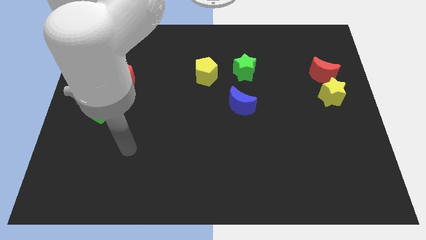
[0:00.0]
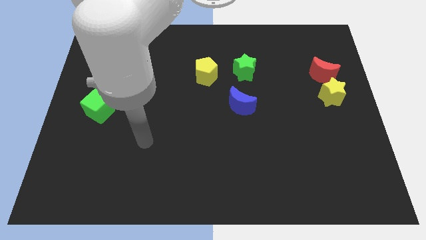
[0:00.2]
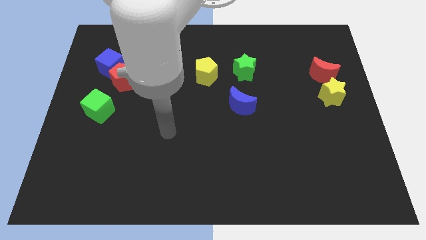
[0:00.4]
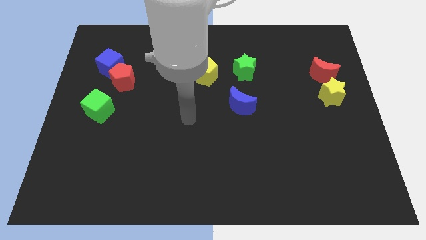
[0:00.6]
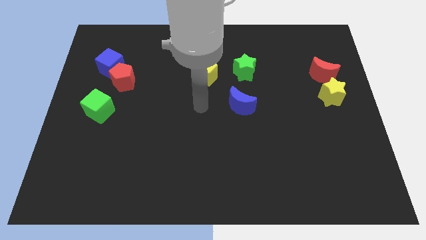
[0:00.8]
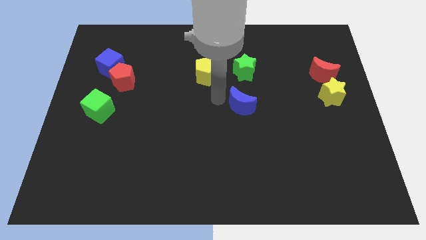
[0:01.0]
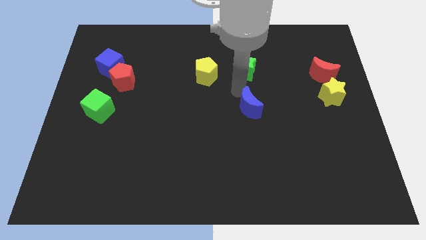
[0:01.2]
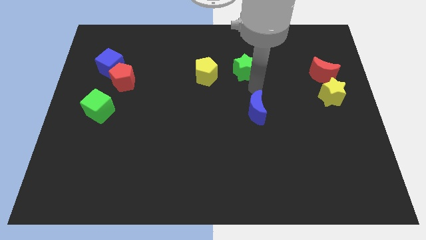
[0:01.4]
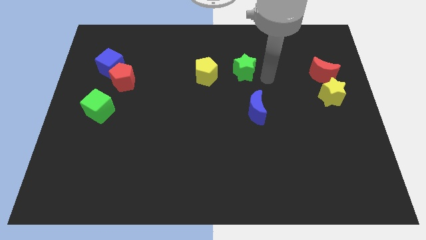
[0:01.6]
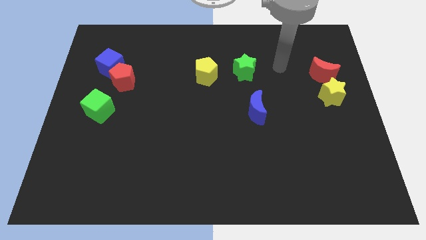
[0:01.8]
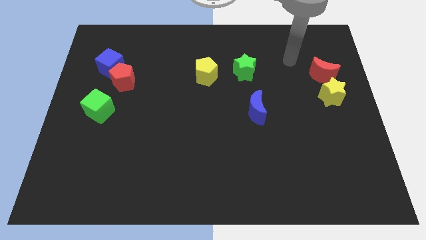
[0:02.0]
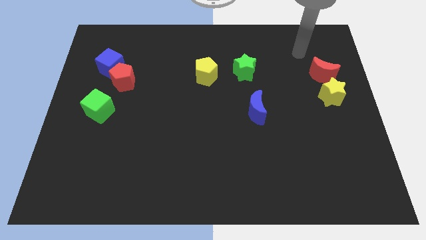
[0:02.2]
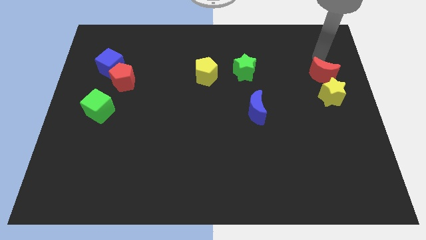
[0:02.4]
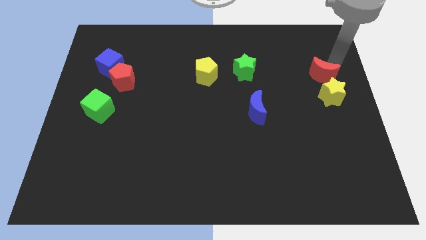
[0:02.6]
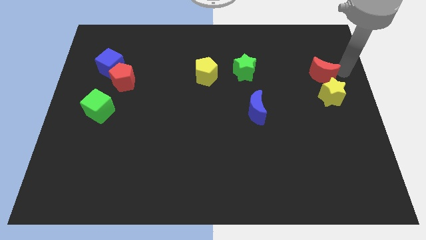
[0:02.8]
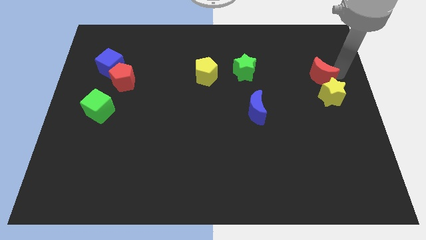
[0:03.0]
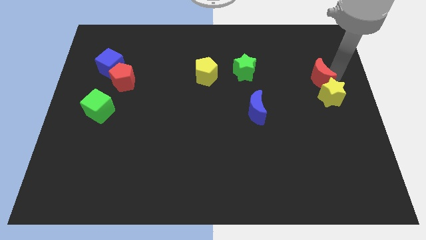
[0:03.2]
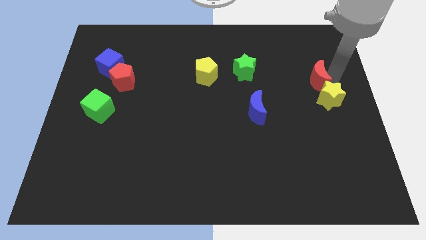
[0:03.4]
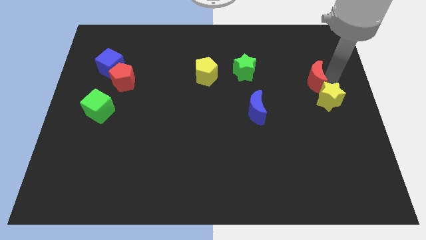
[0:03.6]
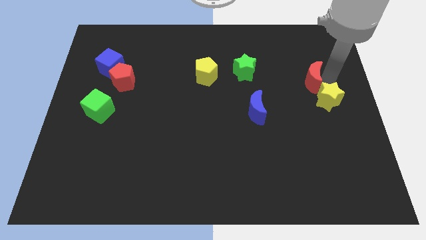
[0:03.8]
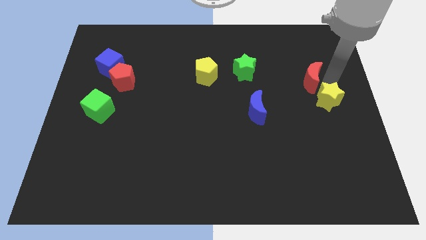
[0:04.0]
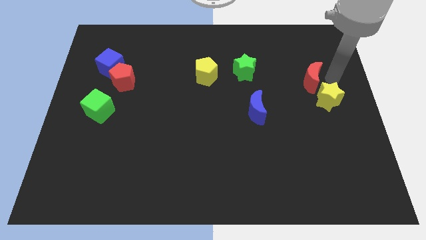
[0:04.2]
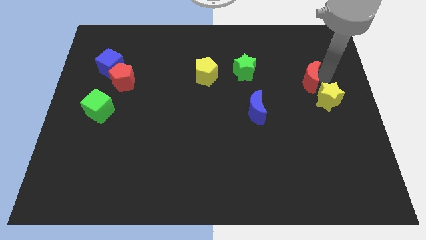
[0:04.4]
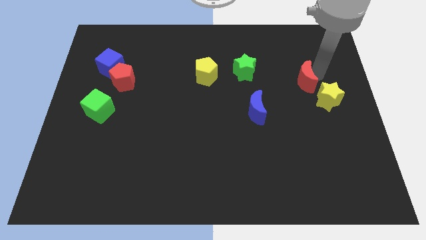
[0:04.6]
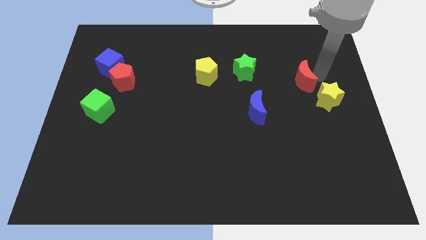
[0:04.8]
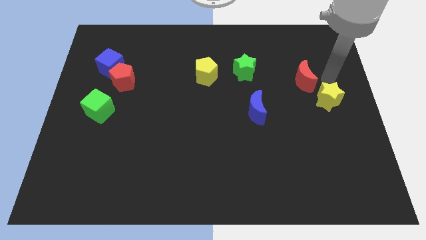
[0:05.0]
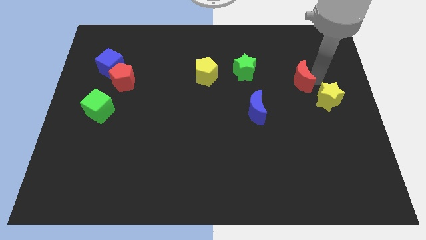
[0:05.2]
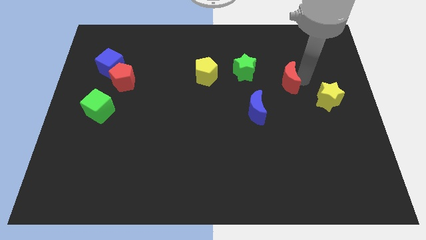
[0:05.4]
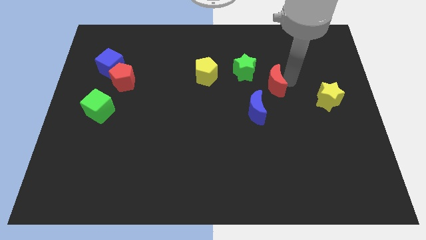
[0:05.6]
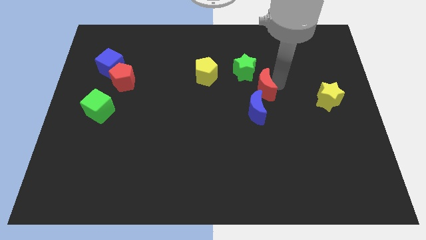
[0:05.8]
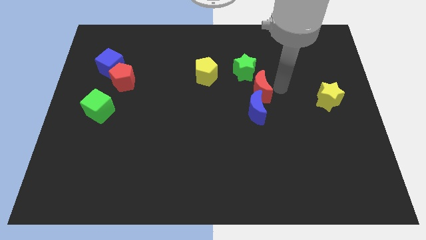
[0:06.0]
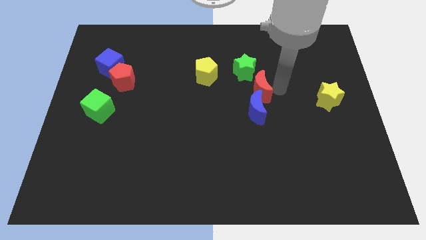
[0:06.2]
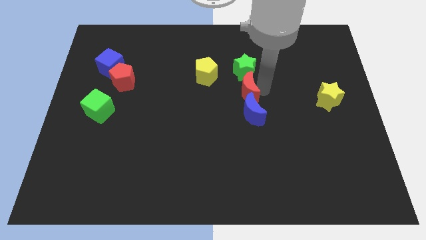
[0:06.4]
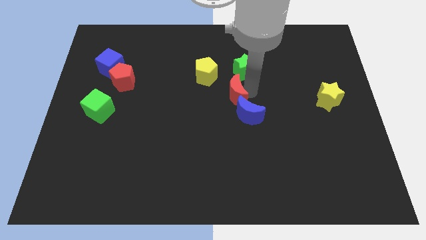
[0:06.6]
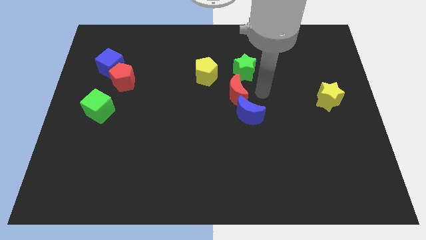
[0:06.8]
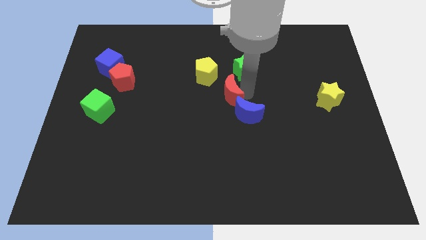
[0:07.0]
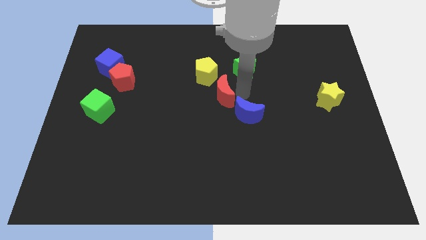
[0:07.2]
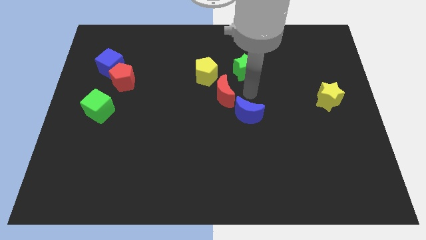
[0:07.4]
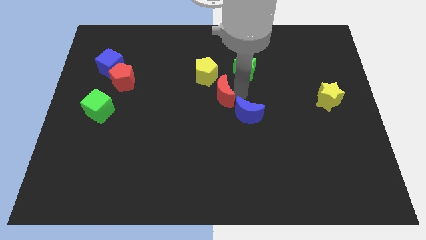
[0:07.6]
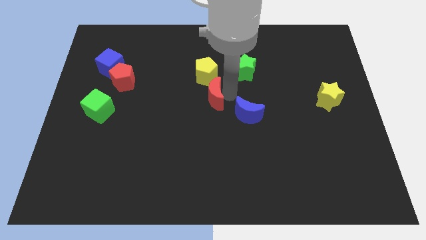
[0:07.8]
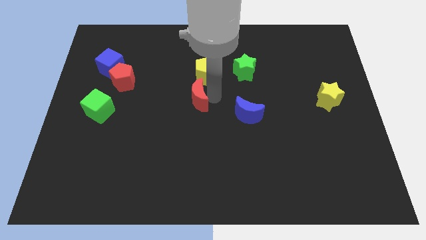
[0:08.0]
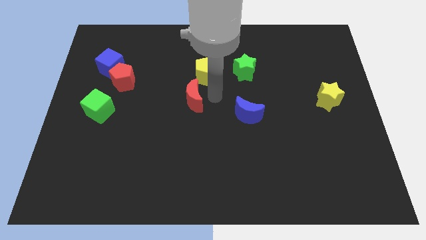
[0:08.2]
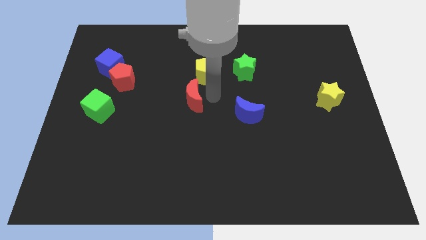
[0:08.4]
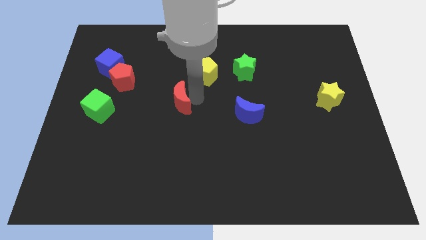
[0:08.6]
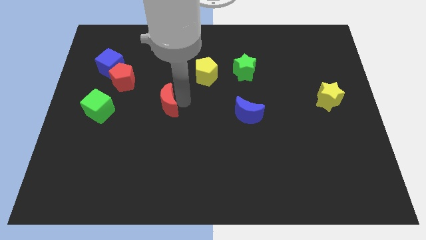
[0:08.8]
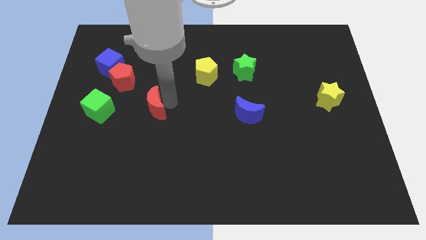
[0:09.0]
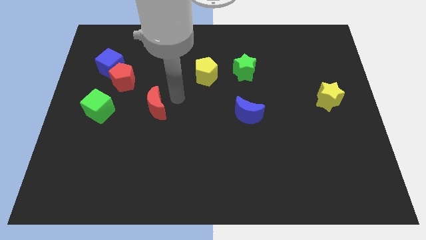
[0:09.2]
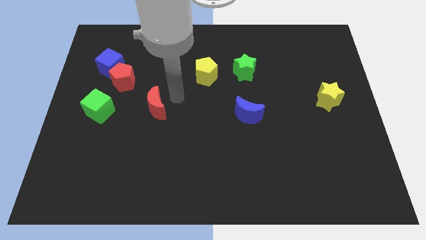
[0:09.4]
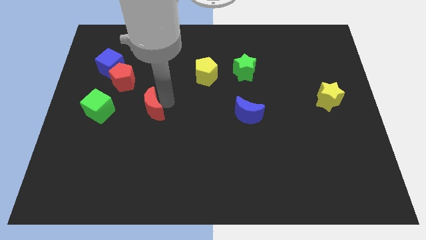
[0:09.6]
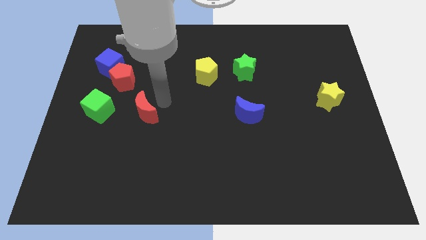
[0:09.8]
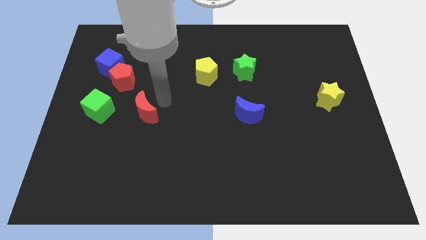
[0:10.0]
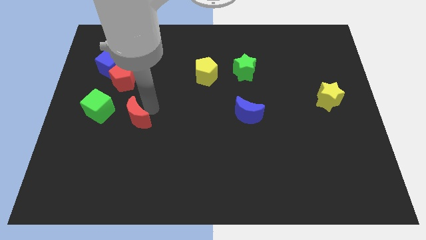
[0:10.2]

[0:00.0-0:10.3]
slide the red moon to the bottom right of the green cube

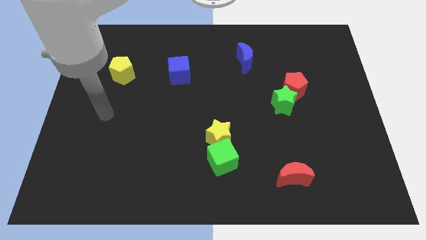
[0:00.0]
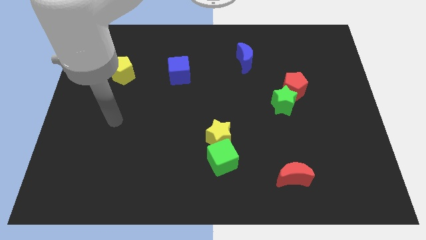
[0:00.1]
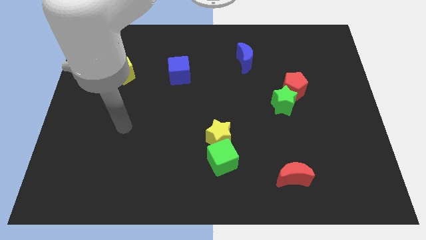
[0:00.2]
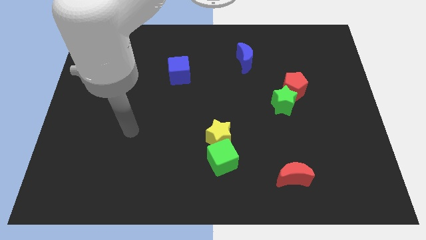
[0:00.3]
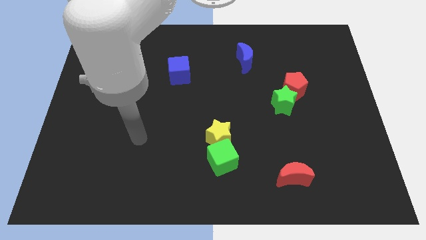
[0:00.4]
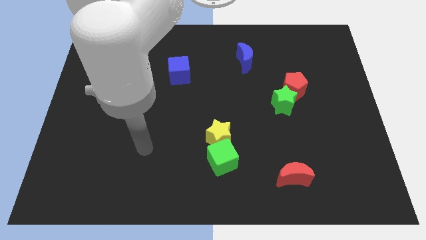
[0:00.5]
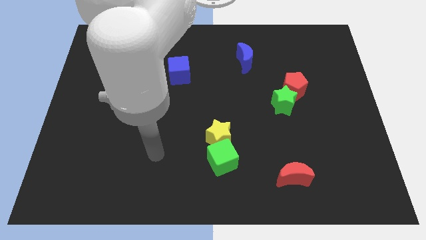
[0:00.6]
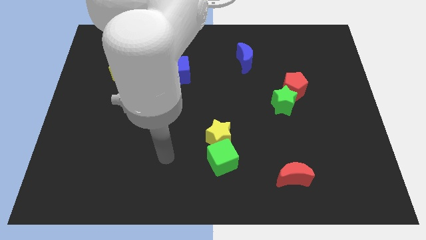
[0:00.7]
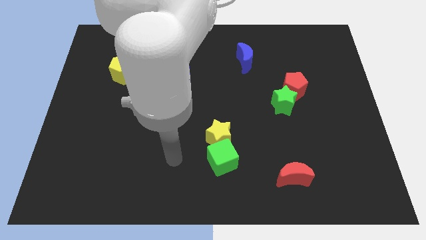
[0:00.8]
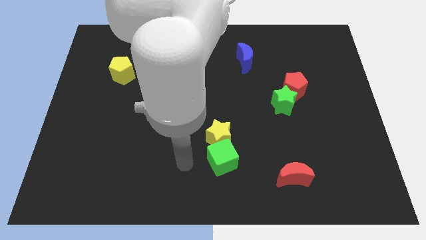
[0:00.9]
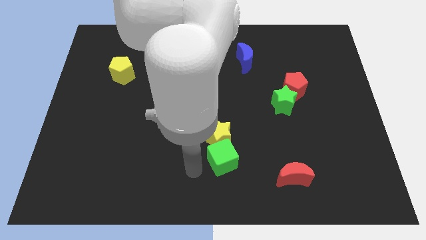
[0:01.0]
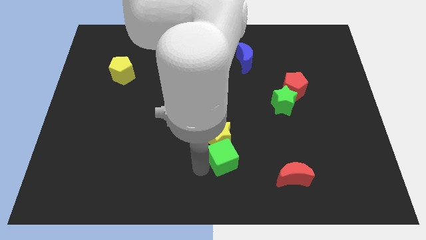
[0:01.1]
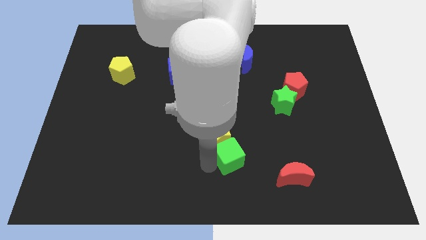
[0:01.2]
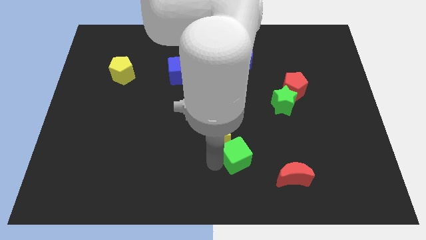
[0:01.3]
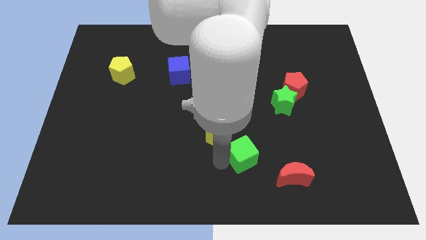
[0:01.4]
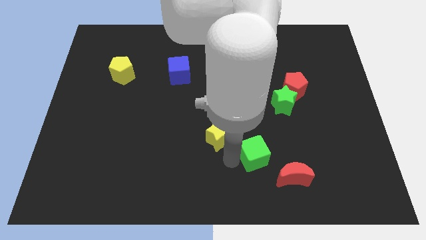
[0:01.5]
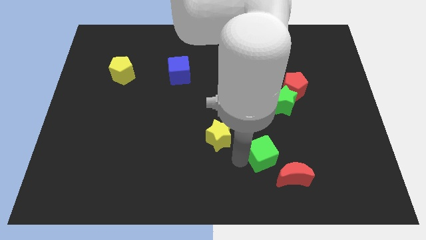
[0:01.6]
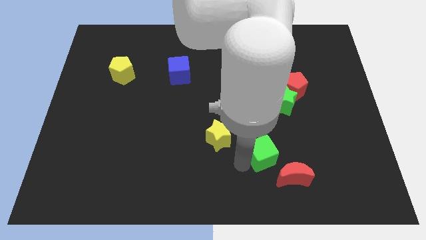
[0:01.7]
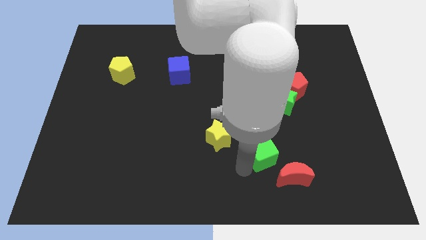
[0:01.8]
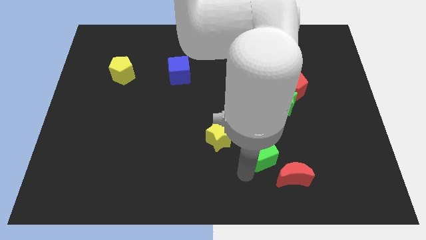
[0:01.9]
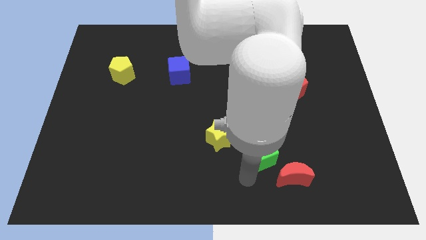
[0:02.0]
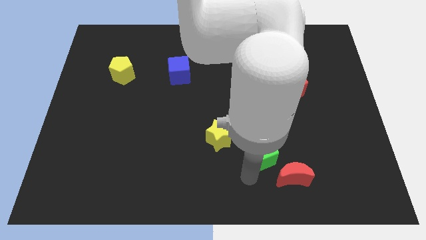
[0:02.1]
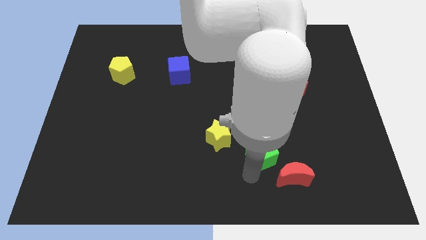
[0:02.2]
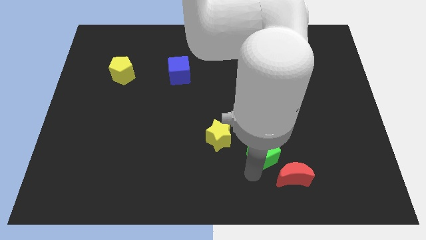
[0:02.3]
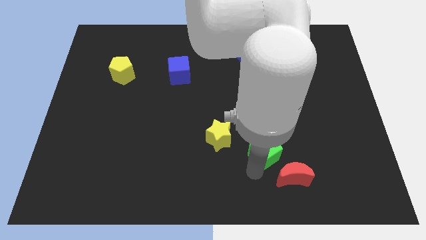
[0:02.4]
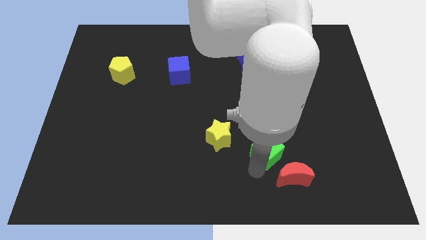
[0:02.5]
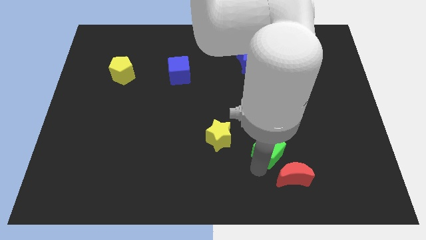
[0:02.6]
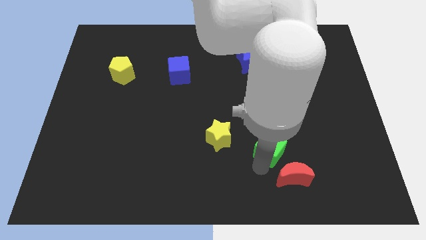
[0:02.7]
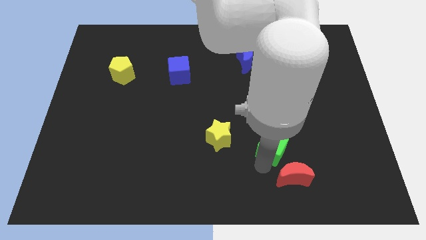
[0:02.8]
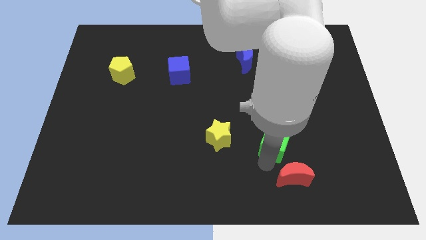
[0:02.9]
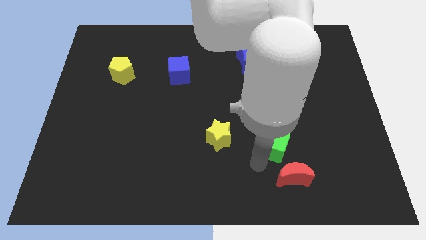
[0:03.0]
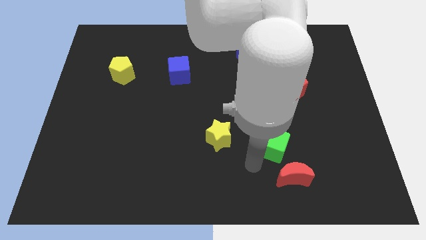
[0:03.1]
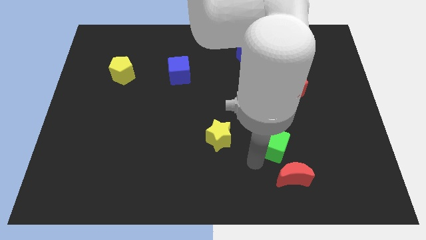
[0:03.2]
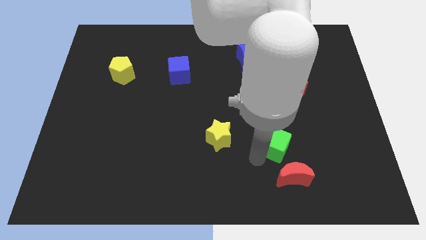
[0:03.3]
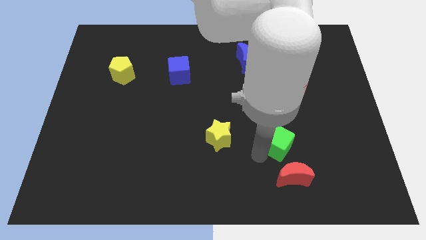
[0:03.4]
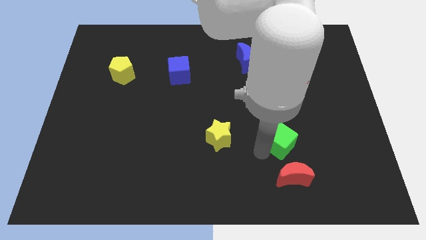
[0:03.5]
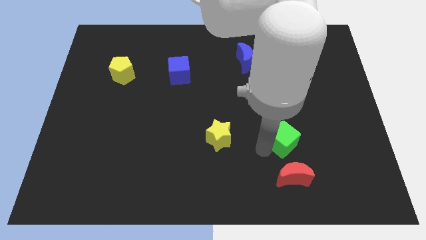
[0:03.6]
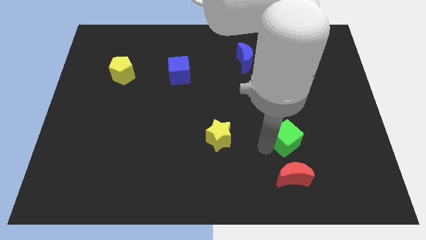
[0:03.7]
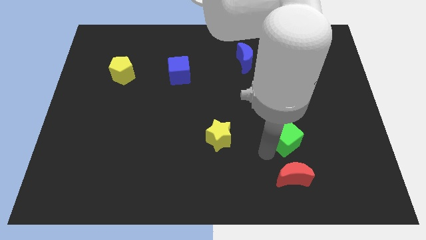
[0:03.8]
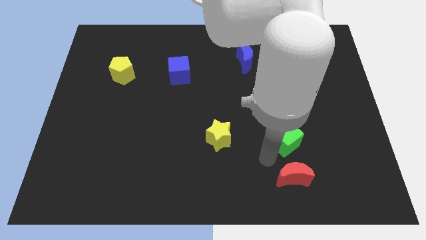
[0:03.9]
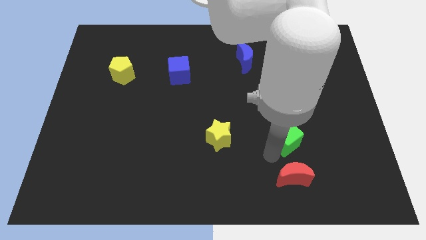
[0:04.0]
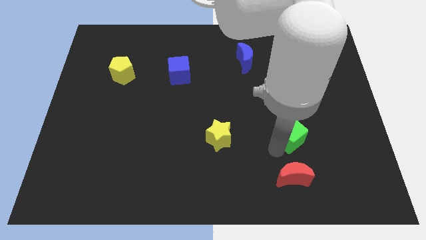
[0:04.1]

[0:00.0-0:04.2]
push the green cube to the bottom side of the red pentagon
